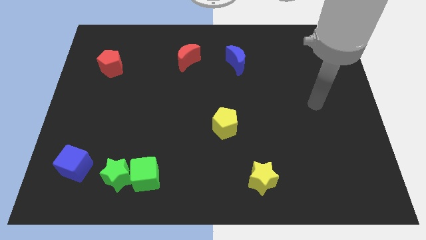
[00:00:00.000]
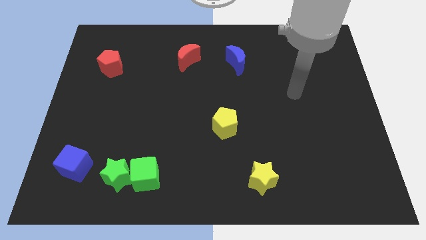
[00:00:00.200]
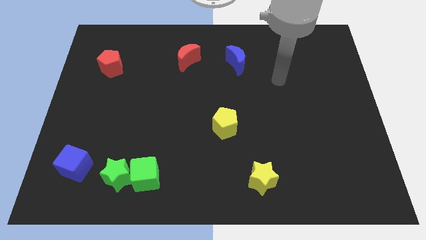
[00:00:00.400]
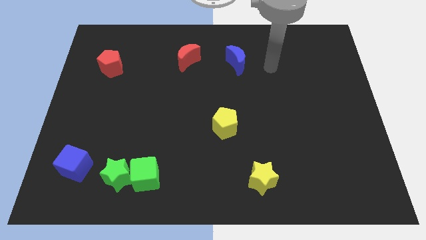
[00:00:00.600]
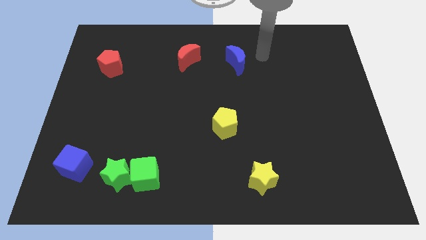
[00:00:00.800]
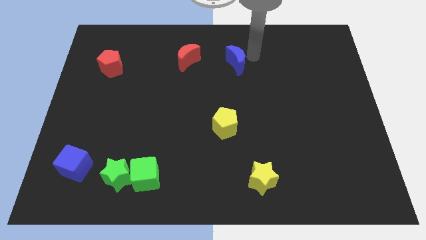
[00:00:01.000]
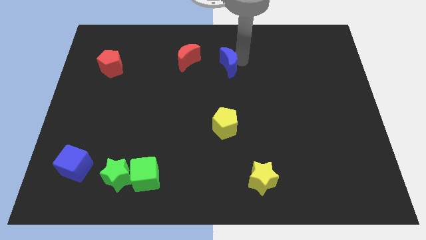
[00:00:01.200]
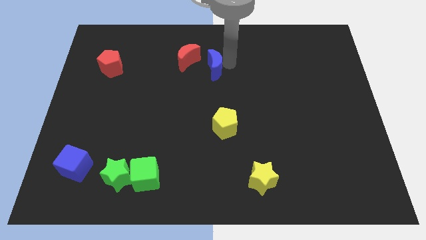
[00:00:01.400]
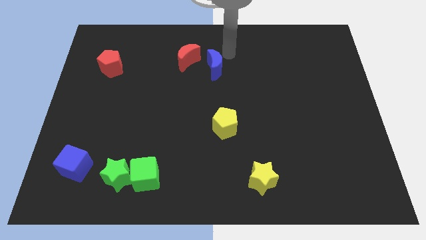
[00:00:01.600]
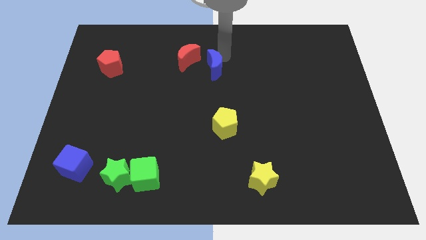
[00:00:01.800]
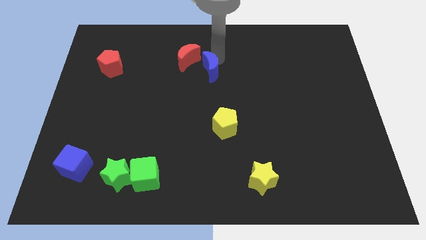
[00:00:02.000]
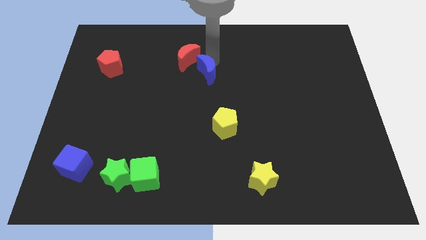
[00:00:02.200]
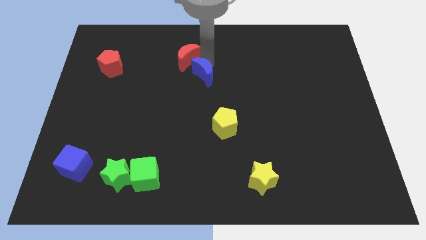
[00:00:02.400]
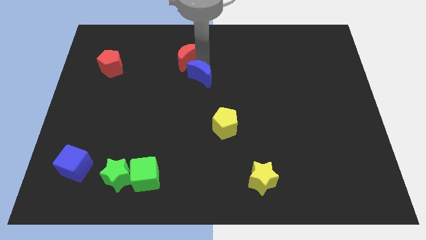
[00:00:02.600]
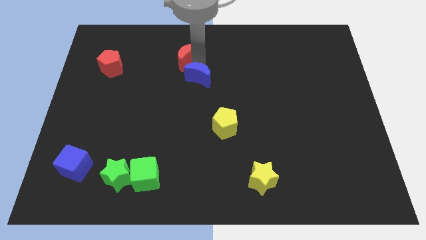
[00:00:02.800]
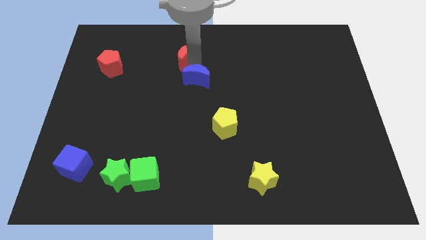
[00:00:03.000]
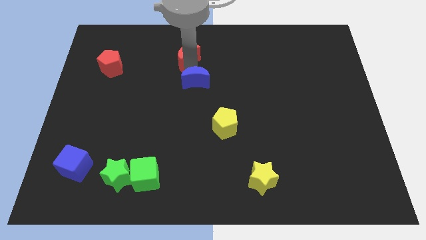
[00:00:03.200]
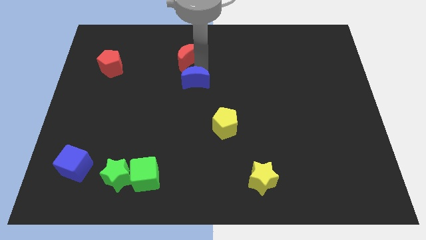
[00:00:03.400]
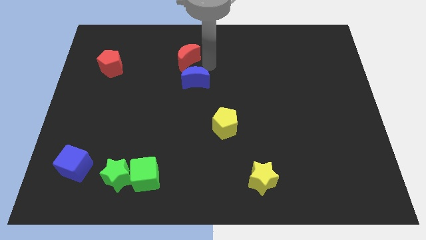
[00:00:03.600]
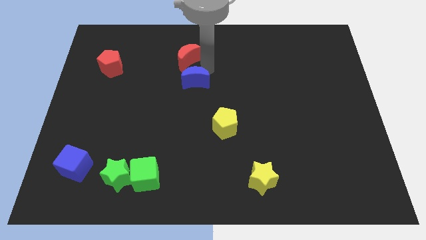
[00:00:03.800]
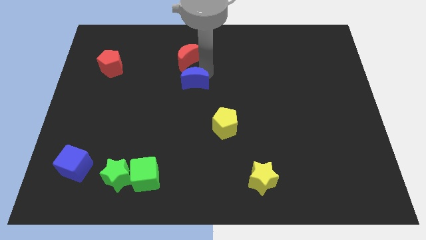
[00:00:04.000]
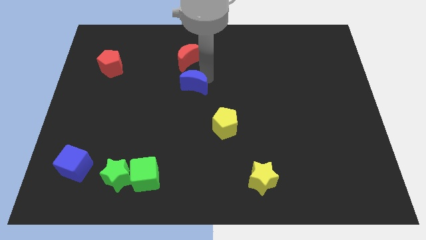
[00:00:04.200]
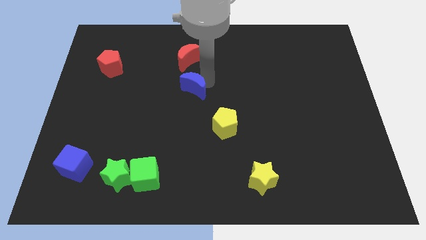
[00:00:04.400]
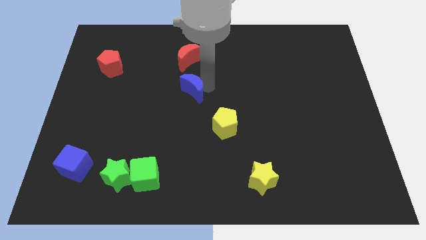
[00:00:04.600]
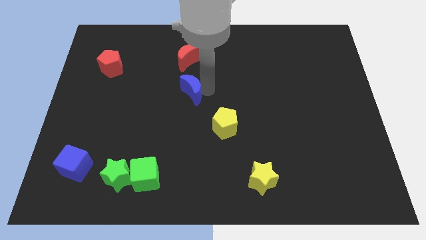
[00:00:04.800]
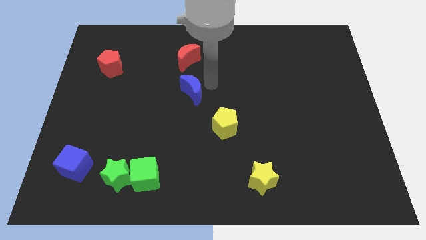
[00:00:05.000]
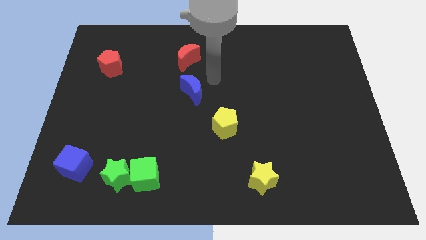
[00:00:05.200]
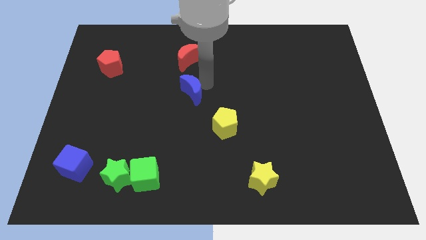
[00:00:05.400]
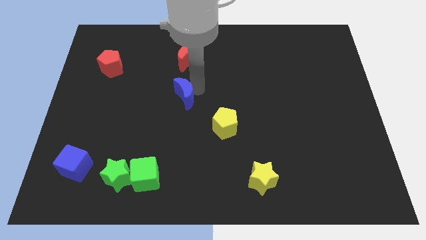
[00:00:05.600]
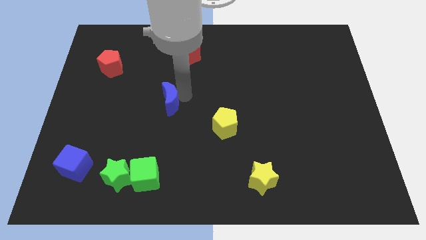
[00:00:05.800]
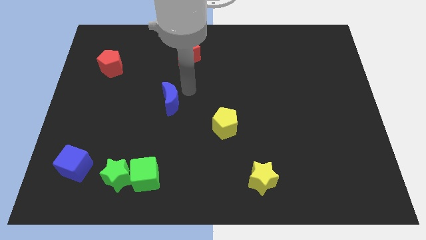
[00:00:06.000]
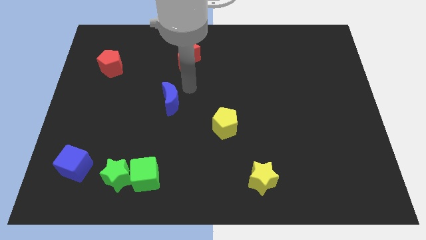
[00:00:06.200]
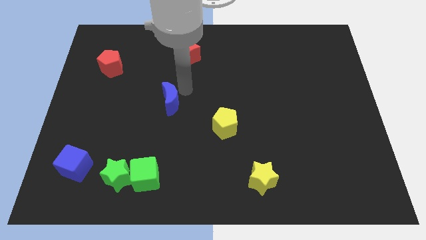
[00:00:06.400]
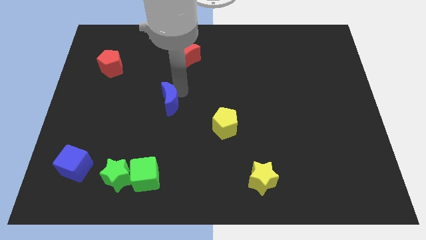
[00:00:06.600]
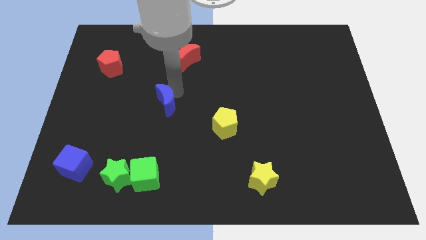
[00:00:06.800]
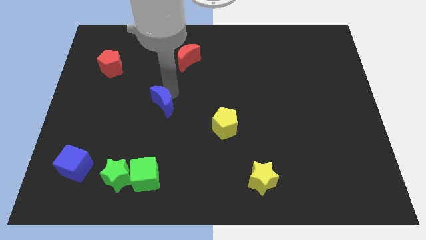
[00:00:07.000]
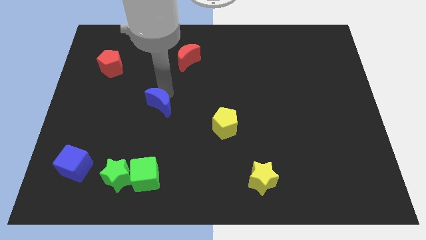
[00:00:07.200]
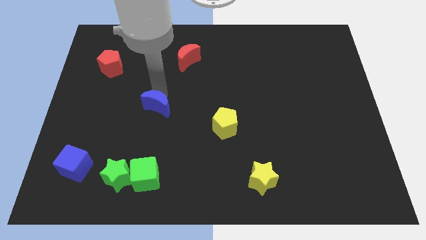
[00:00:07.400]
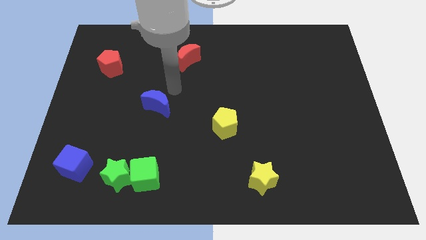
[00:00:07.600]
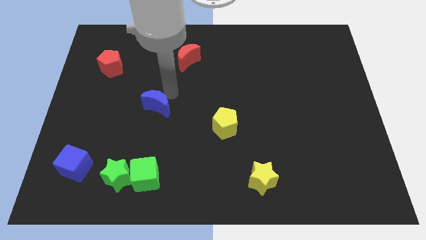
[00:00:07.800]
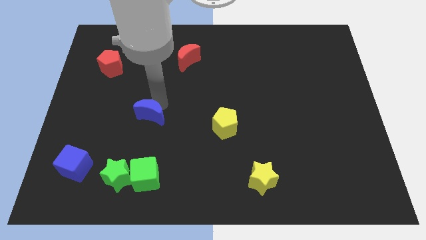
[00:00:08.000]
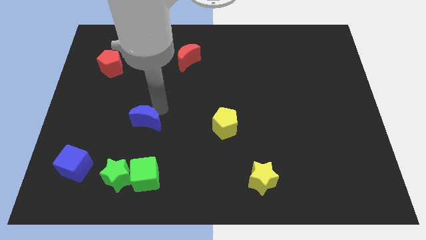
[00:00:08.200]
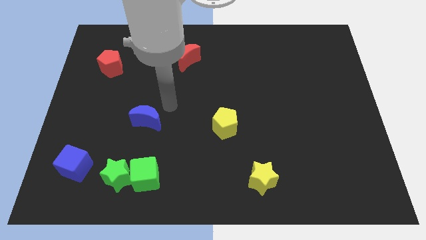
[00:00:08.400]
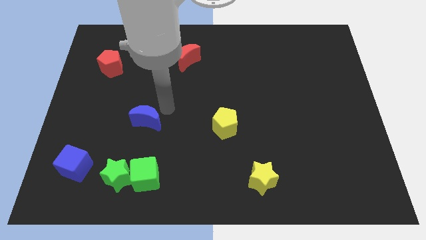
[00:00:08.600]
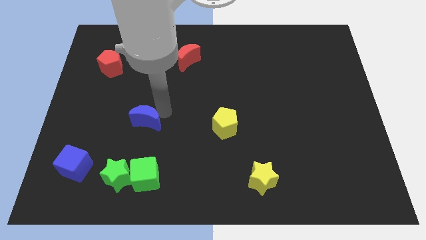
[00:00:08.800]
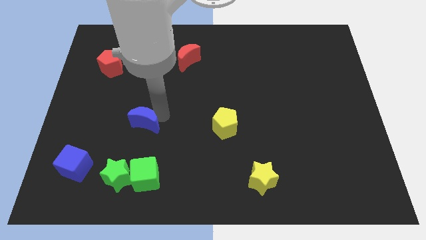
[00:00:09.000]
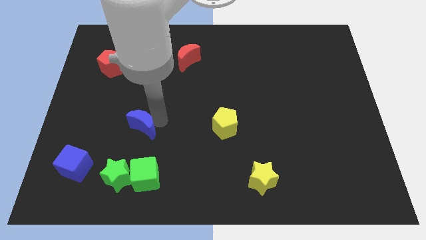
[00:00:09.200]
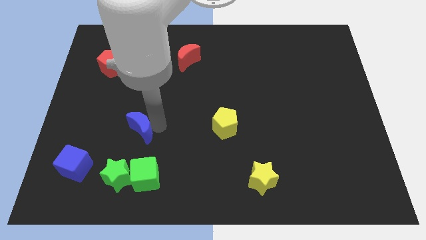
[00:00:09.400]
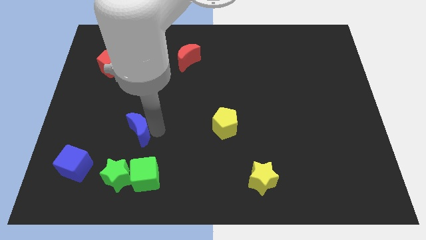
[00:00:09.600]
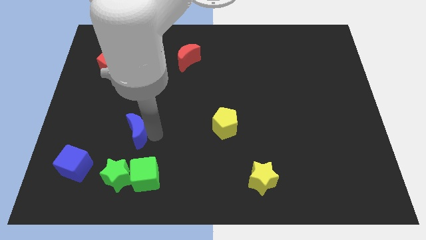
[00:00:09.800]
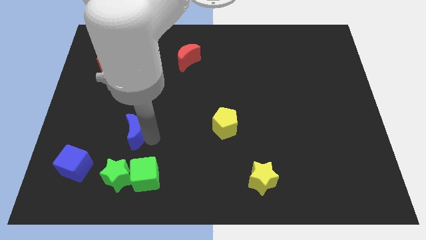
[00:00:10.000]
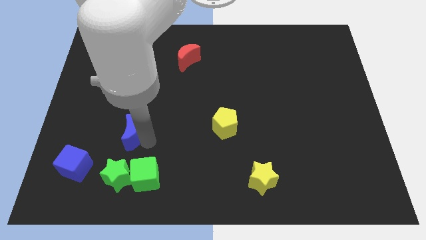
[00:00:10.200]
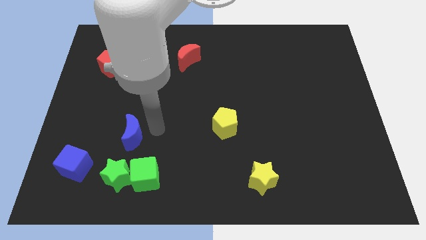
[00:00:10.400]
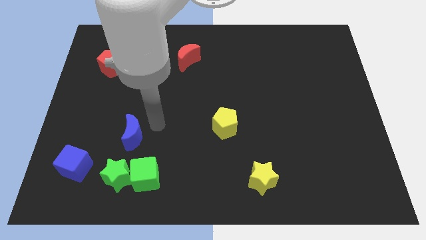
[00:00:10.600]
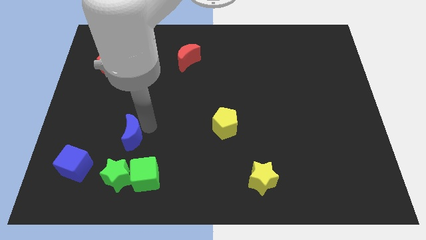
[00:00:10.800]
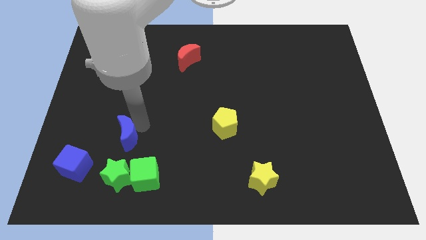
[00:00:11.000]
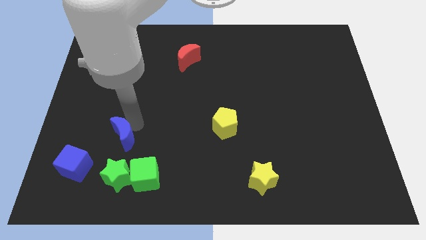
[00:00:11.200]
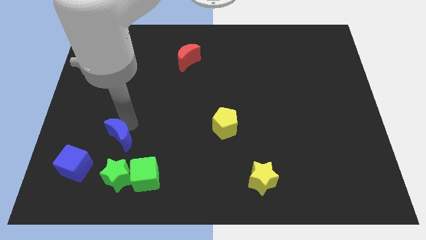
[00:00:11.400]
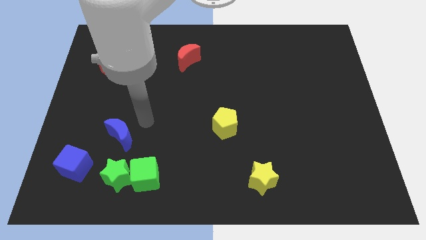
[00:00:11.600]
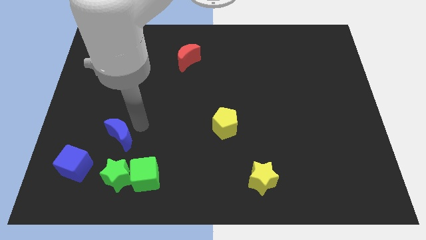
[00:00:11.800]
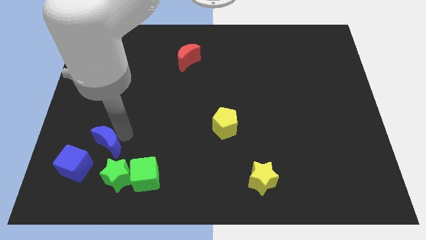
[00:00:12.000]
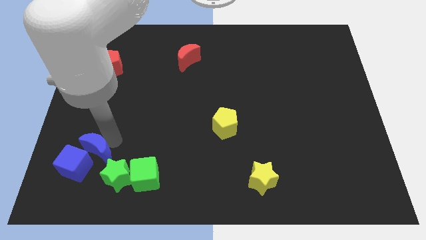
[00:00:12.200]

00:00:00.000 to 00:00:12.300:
slide the blue moon next to the blue cube
